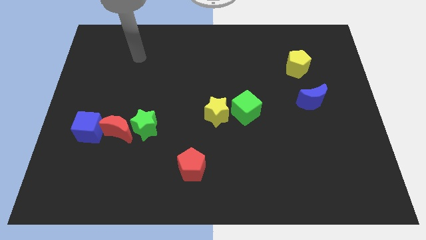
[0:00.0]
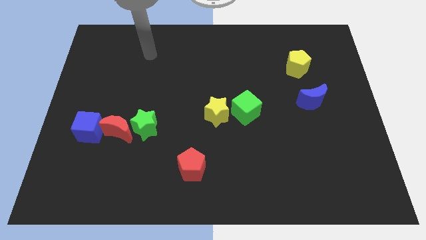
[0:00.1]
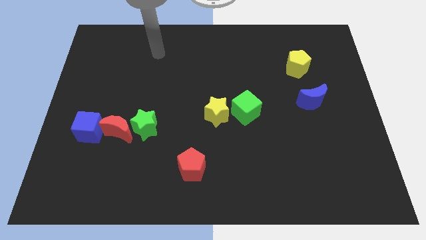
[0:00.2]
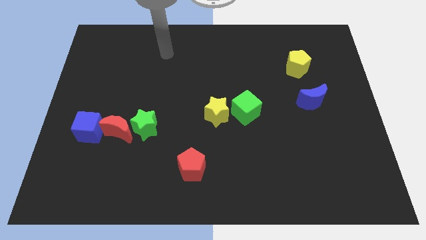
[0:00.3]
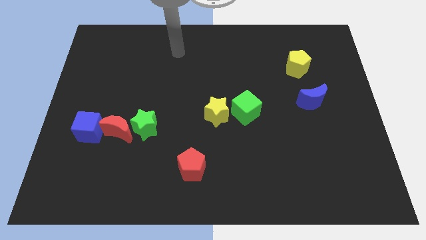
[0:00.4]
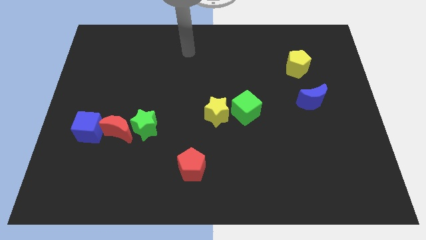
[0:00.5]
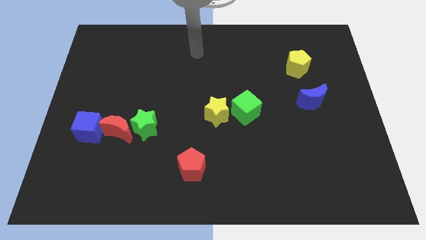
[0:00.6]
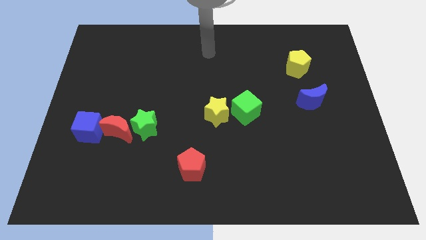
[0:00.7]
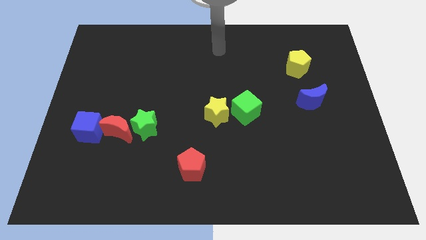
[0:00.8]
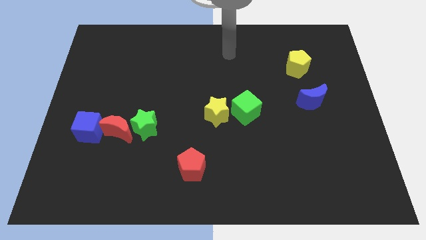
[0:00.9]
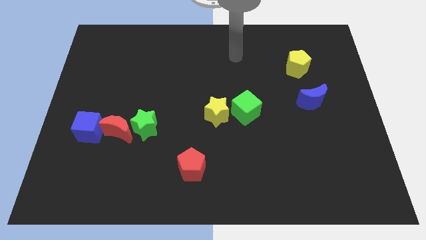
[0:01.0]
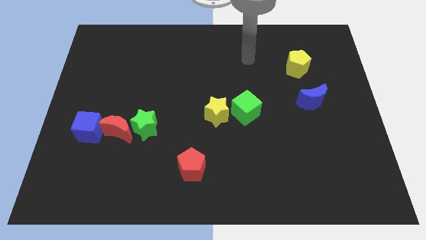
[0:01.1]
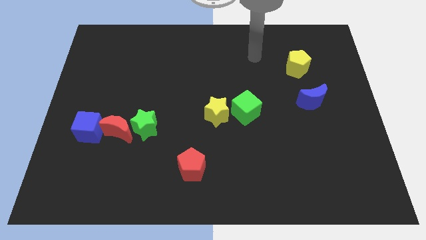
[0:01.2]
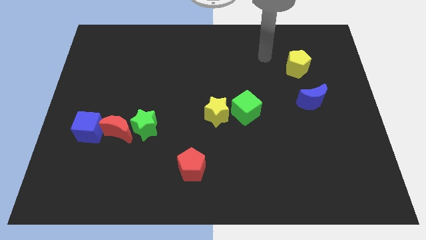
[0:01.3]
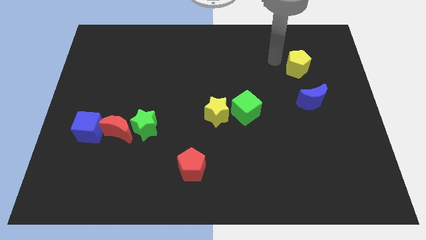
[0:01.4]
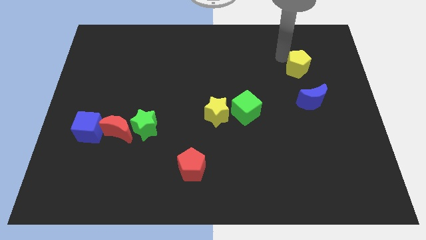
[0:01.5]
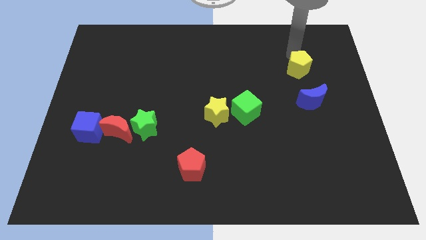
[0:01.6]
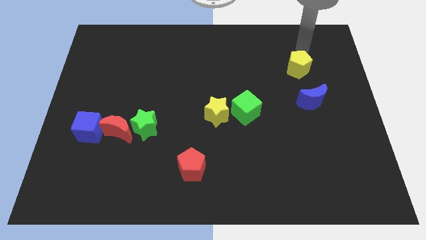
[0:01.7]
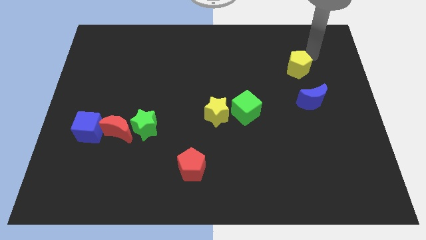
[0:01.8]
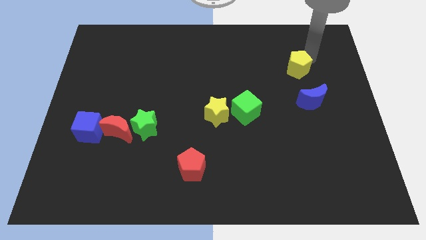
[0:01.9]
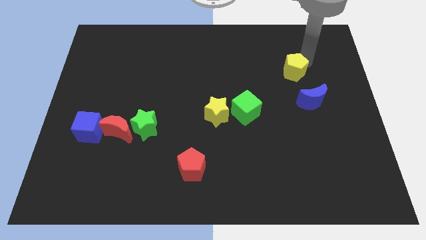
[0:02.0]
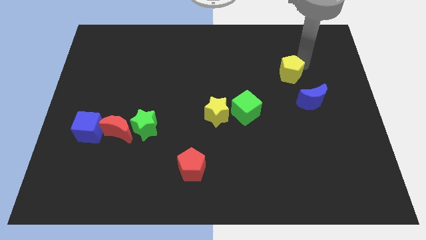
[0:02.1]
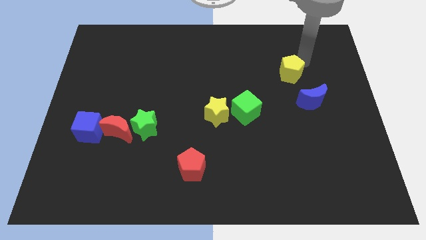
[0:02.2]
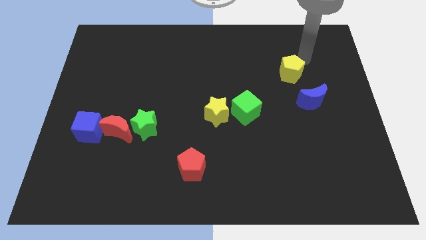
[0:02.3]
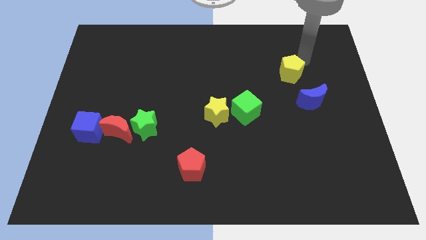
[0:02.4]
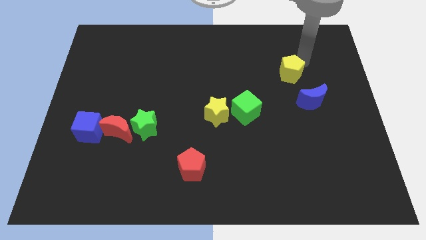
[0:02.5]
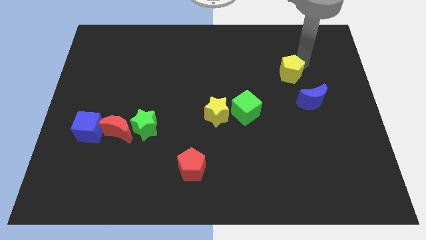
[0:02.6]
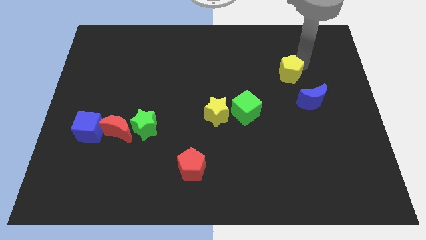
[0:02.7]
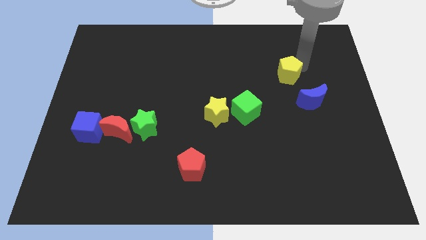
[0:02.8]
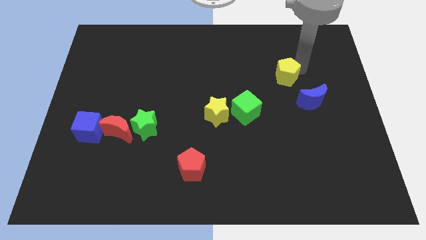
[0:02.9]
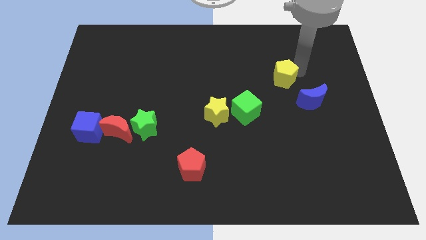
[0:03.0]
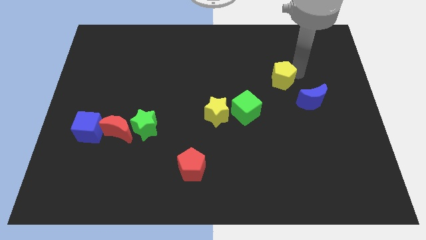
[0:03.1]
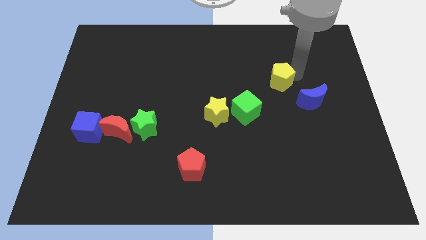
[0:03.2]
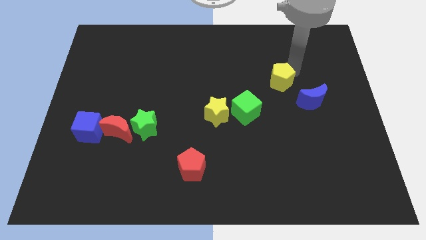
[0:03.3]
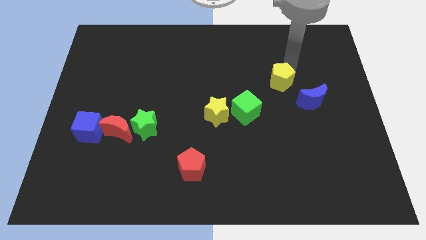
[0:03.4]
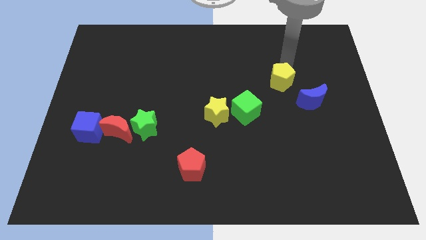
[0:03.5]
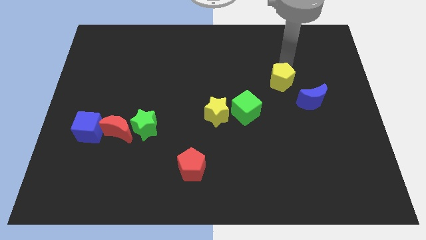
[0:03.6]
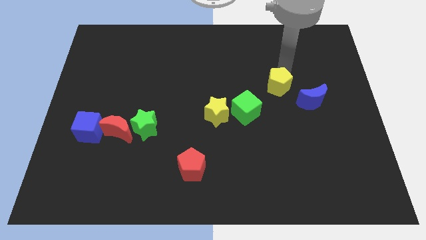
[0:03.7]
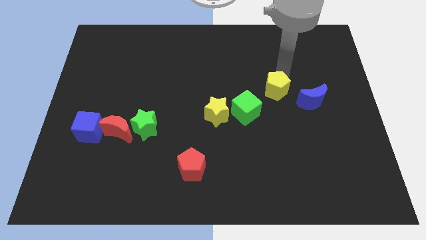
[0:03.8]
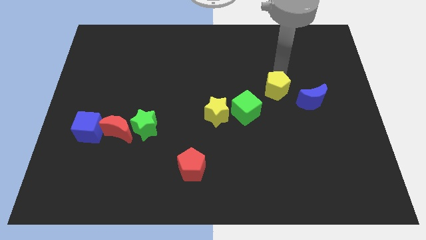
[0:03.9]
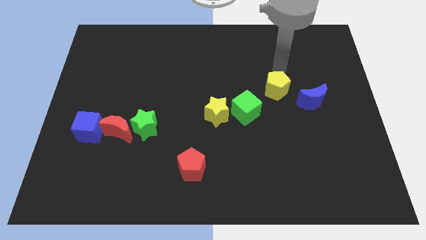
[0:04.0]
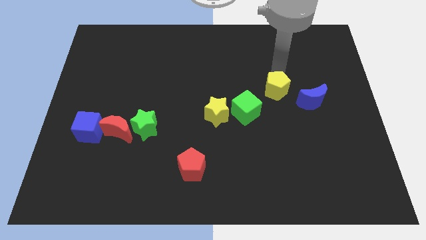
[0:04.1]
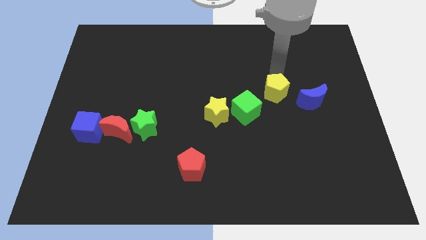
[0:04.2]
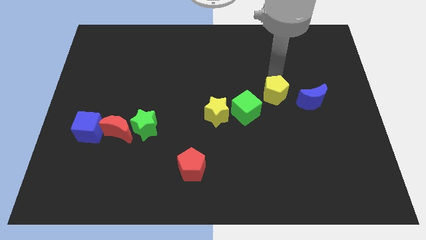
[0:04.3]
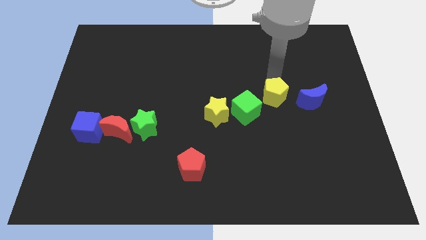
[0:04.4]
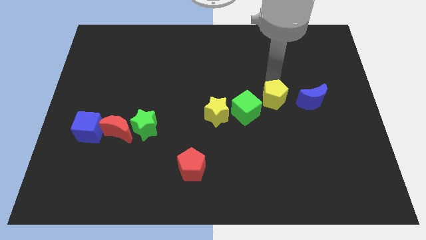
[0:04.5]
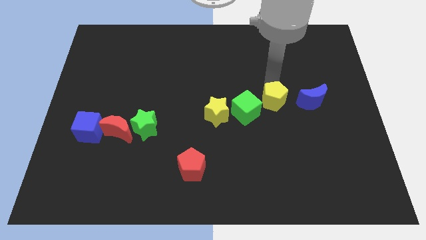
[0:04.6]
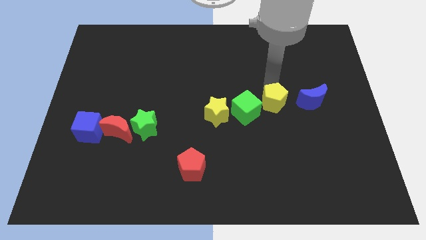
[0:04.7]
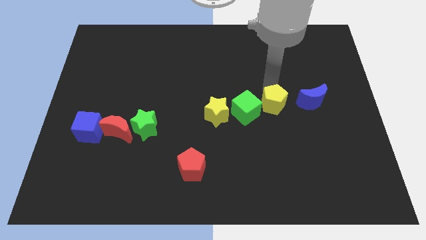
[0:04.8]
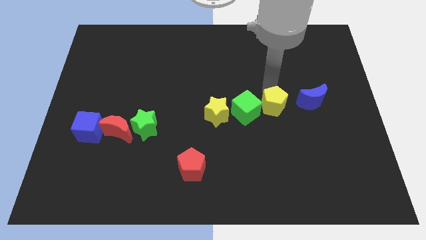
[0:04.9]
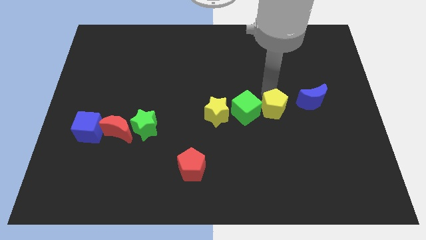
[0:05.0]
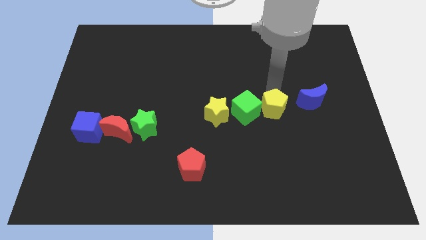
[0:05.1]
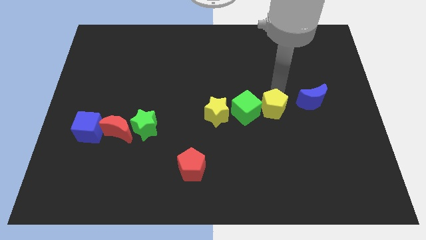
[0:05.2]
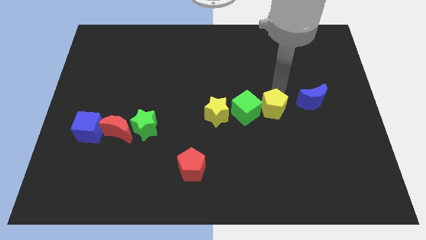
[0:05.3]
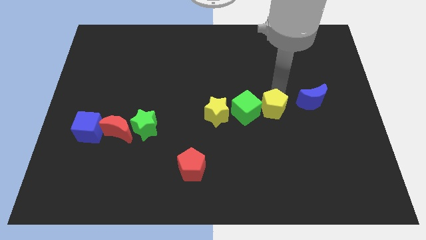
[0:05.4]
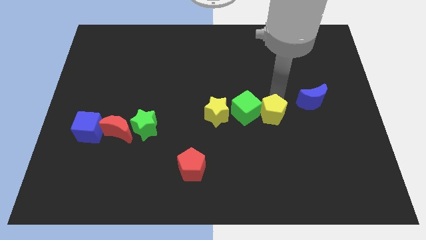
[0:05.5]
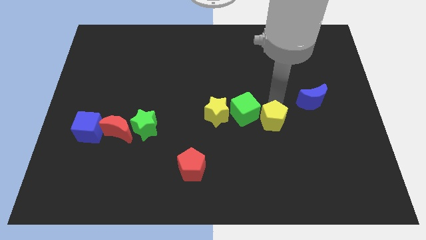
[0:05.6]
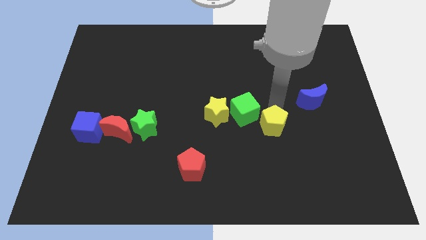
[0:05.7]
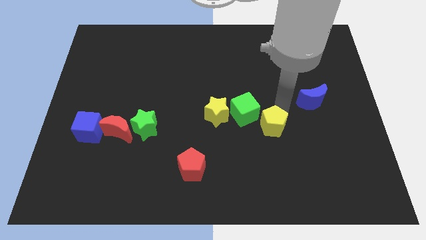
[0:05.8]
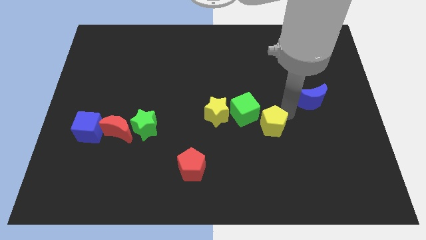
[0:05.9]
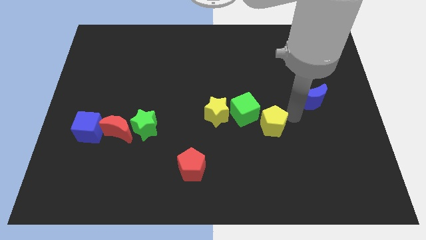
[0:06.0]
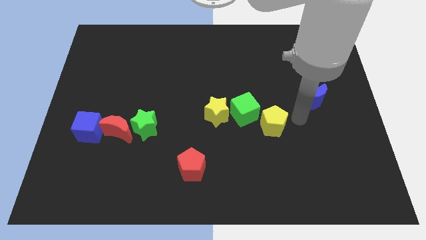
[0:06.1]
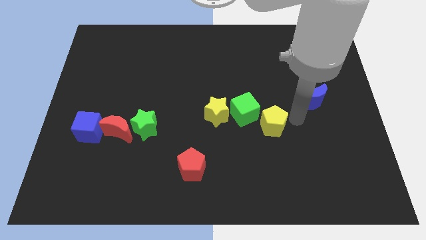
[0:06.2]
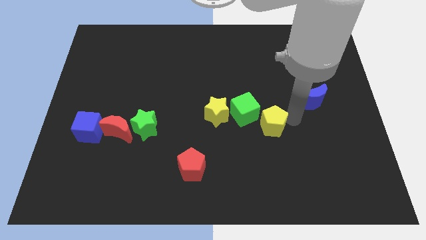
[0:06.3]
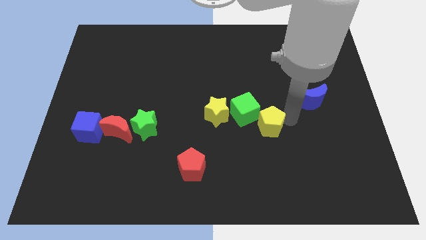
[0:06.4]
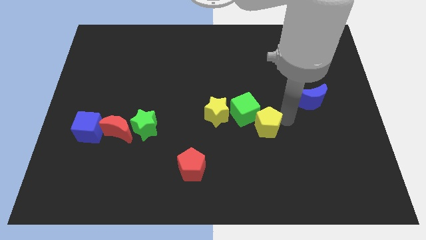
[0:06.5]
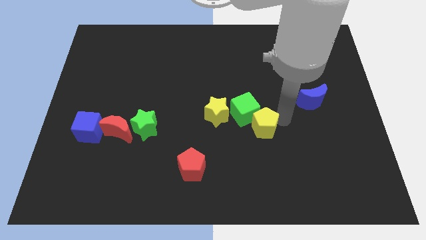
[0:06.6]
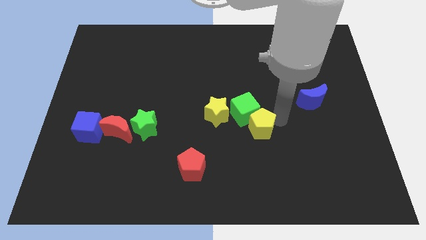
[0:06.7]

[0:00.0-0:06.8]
put the yellow pentagon diagonally down and to the right of the yellow star

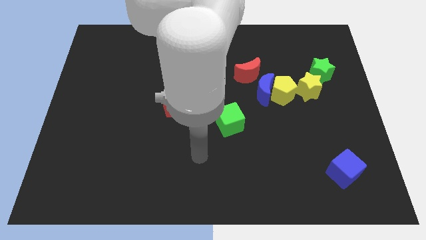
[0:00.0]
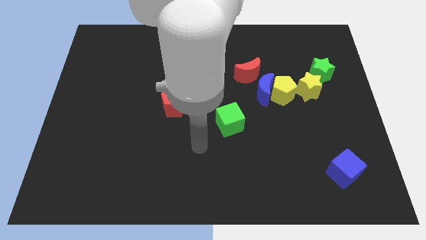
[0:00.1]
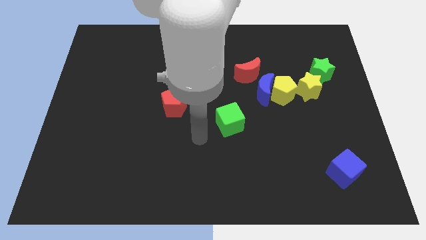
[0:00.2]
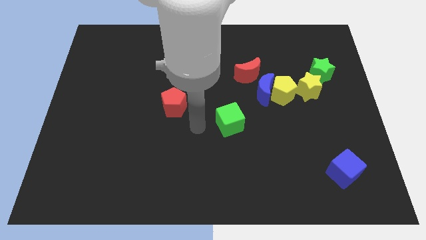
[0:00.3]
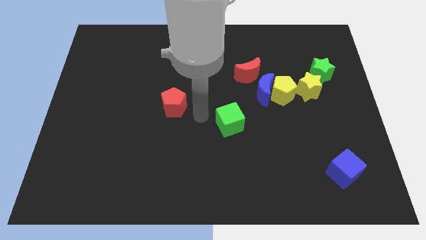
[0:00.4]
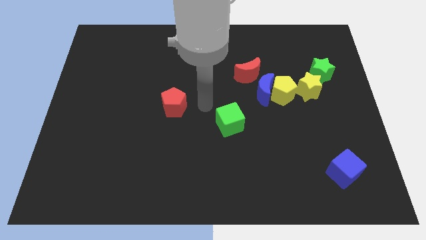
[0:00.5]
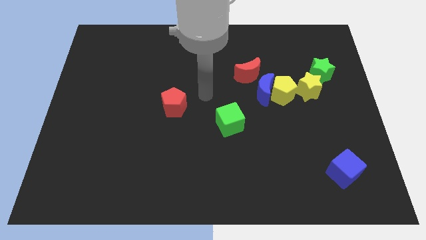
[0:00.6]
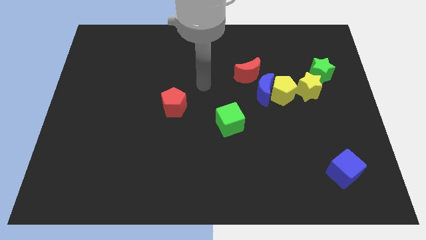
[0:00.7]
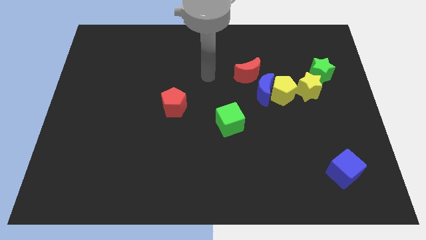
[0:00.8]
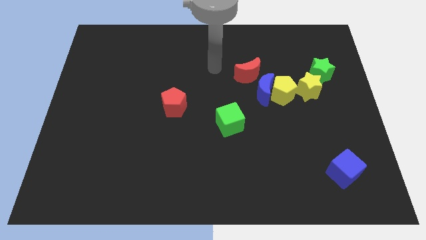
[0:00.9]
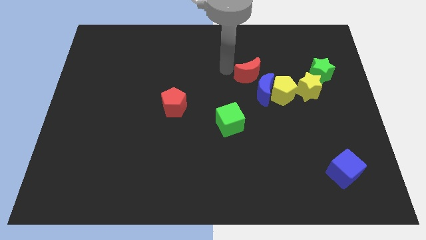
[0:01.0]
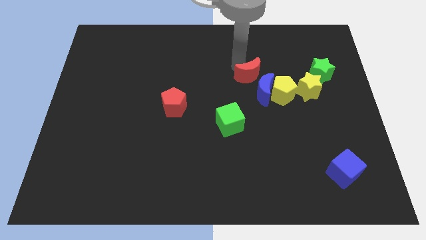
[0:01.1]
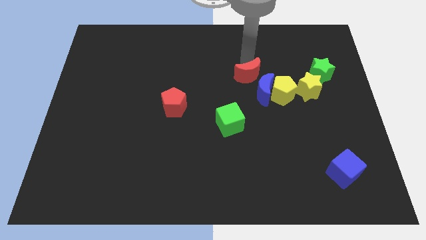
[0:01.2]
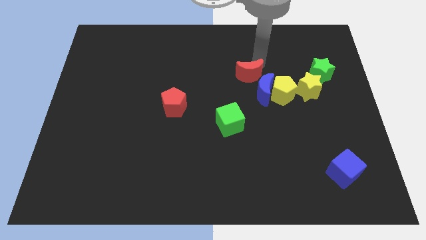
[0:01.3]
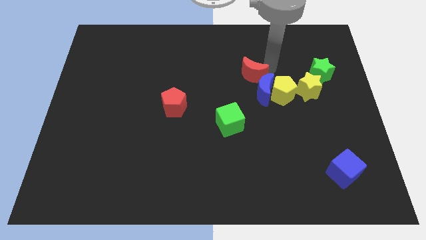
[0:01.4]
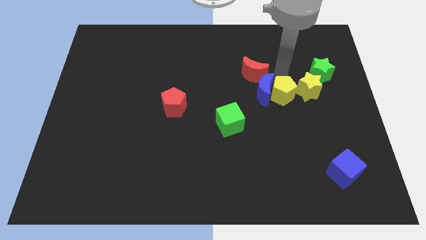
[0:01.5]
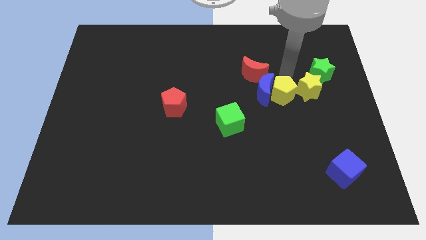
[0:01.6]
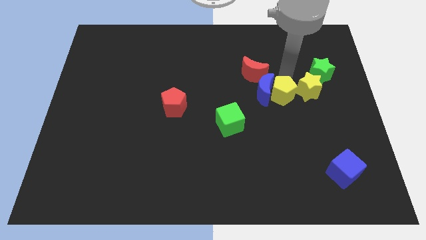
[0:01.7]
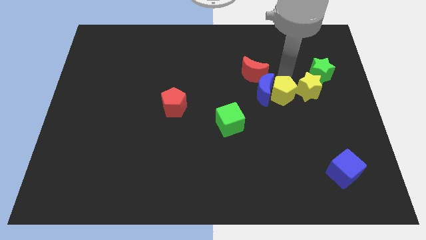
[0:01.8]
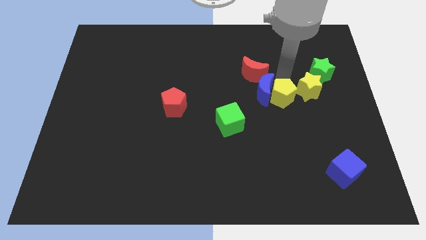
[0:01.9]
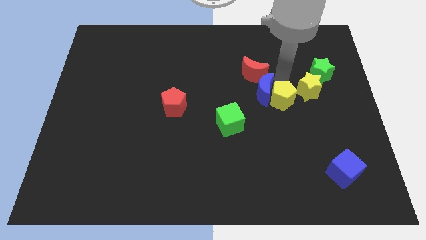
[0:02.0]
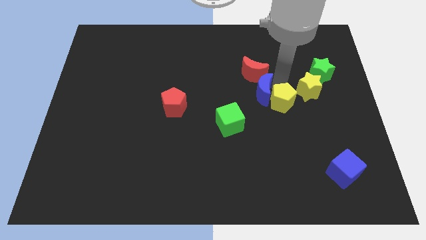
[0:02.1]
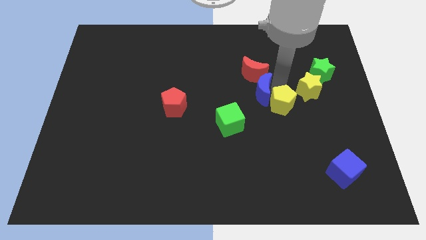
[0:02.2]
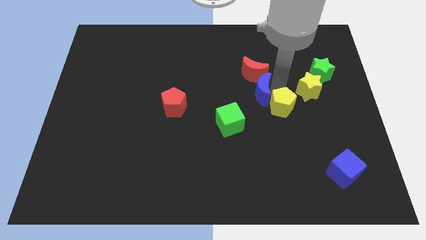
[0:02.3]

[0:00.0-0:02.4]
put the yellow pentagon just right of the green cube
